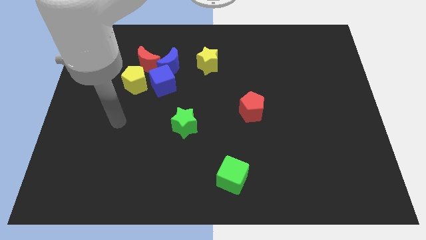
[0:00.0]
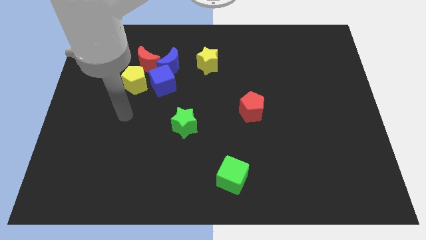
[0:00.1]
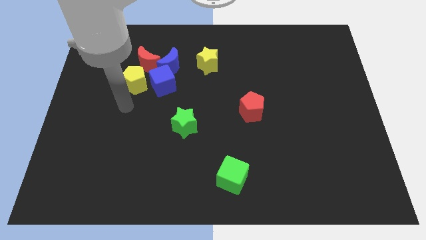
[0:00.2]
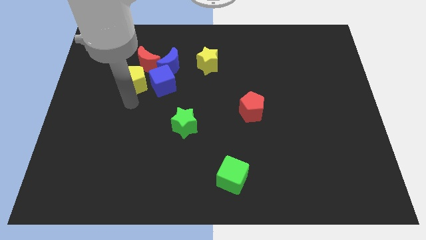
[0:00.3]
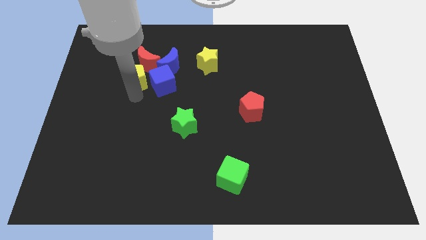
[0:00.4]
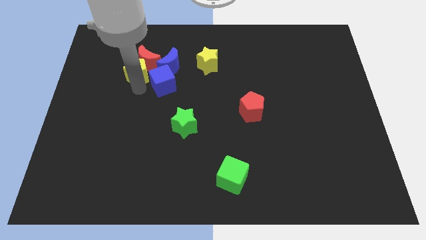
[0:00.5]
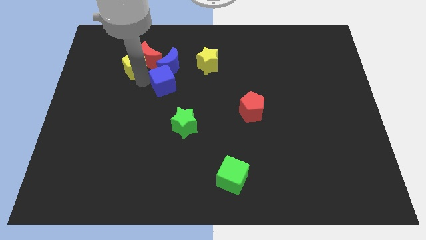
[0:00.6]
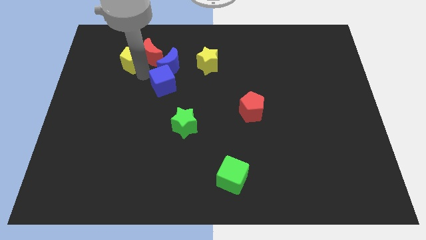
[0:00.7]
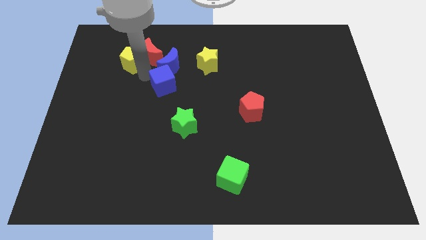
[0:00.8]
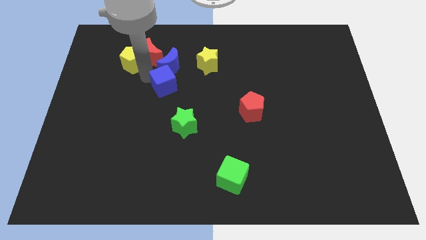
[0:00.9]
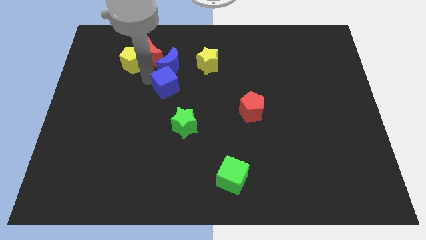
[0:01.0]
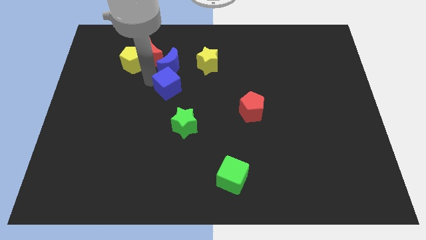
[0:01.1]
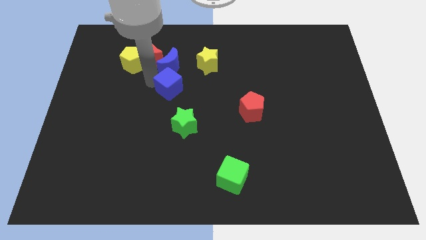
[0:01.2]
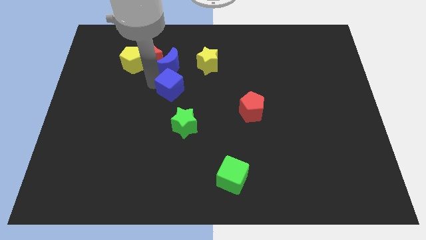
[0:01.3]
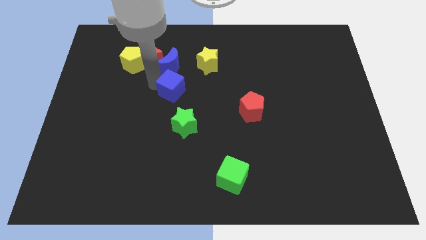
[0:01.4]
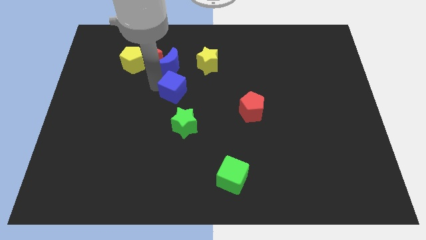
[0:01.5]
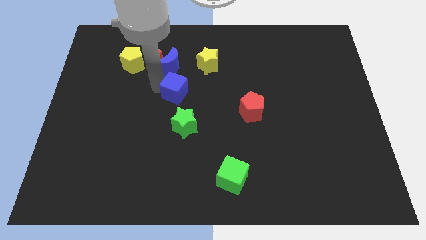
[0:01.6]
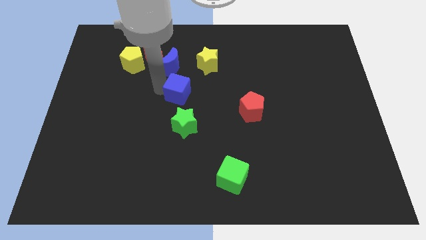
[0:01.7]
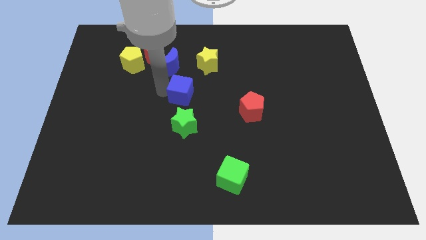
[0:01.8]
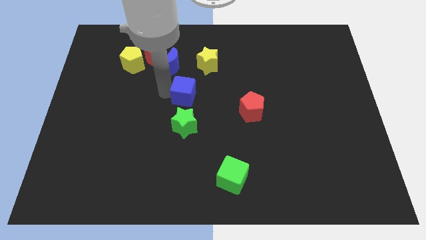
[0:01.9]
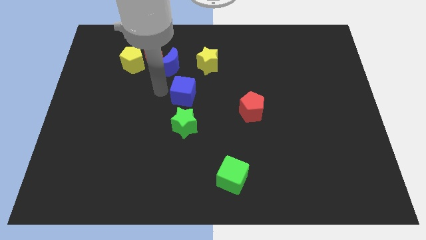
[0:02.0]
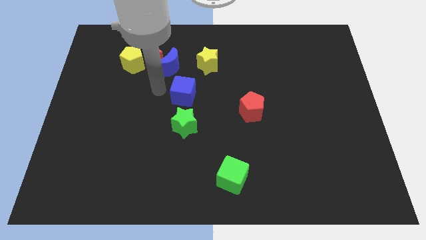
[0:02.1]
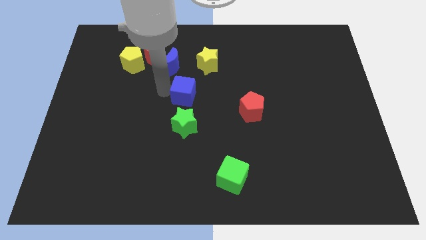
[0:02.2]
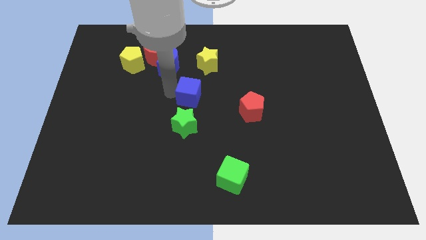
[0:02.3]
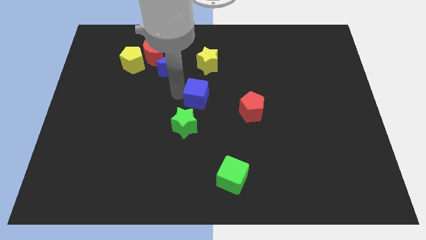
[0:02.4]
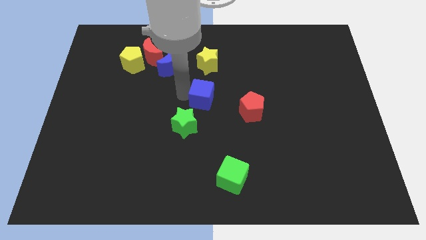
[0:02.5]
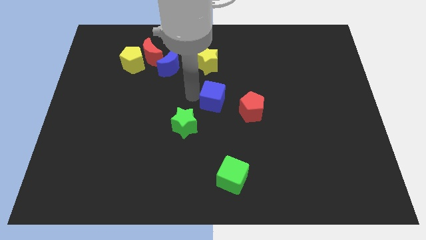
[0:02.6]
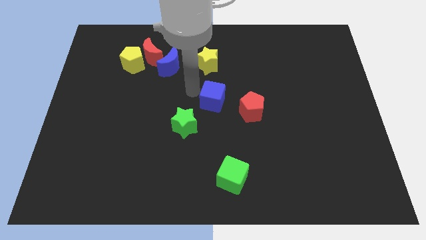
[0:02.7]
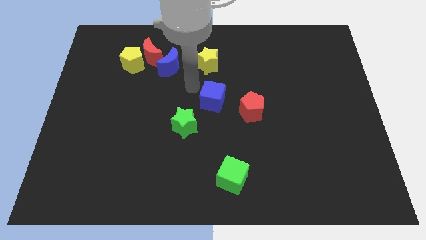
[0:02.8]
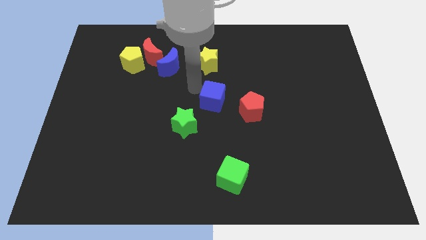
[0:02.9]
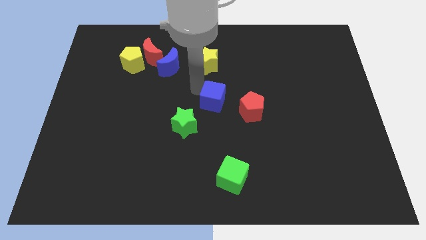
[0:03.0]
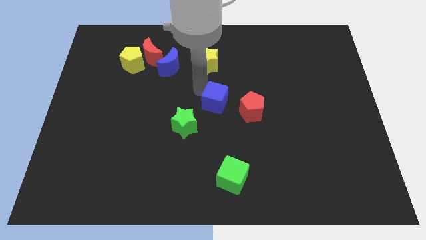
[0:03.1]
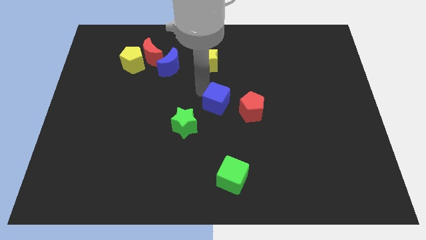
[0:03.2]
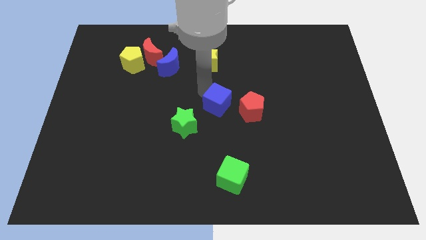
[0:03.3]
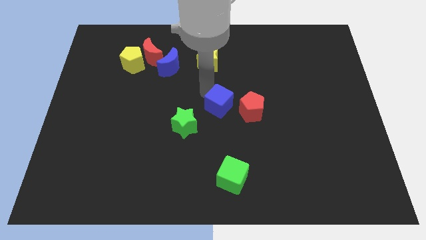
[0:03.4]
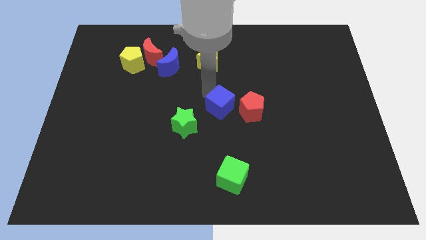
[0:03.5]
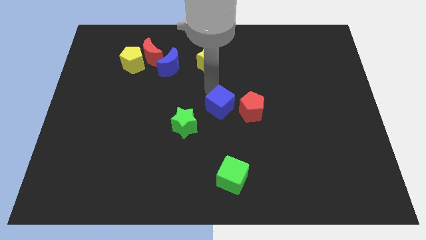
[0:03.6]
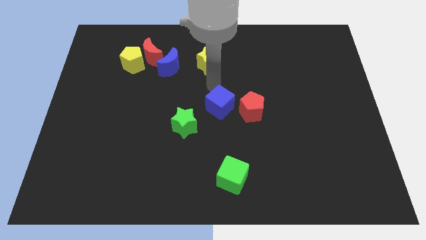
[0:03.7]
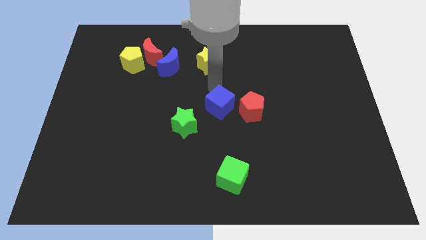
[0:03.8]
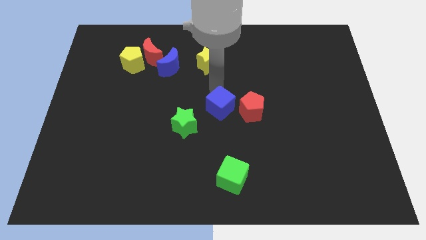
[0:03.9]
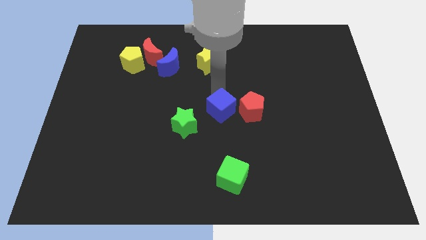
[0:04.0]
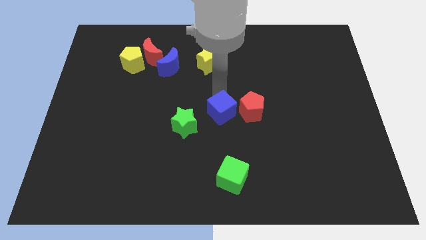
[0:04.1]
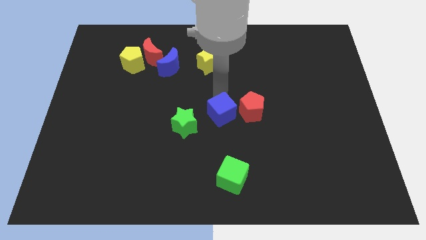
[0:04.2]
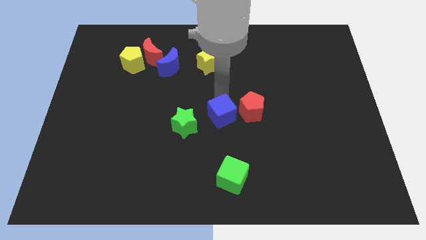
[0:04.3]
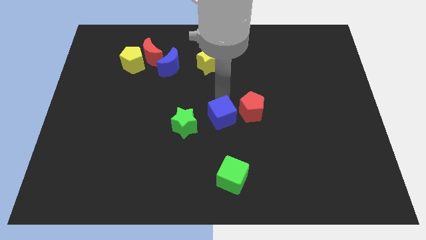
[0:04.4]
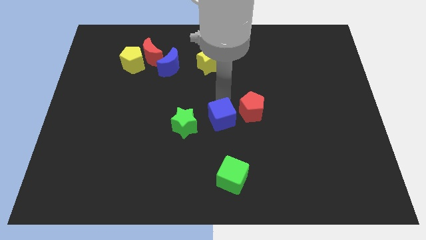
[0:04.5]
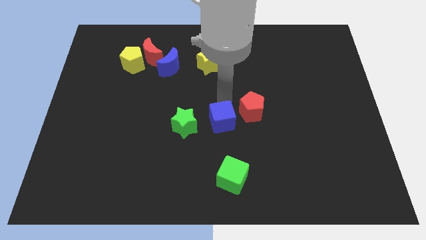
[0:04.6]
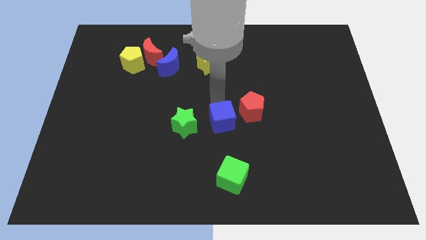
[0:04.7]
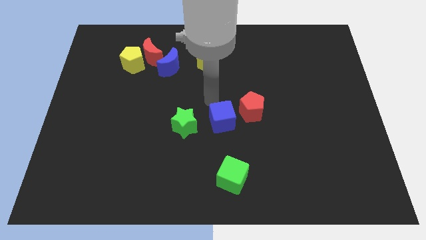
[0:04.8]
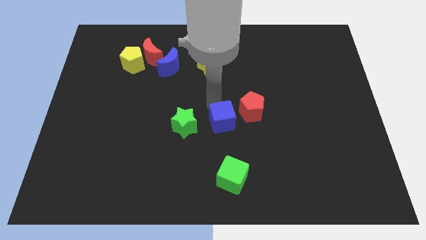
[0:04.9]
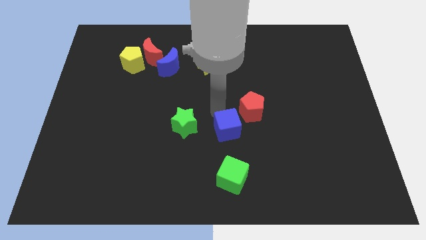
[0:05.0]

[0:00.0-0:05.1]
move the blue cube diagonally down and right

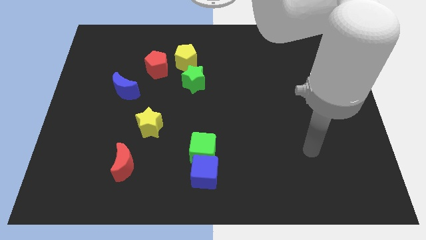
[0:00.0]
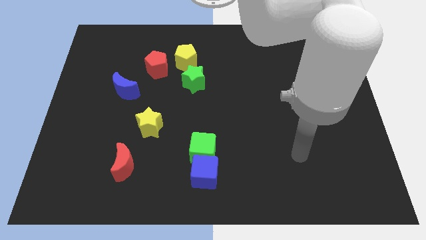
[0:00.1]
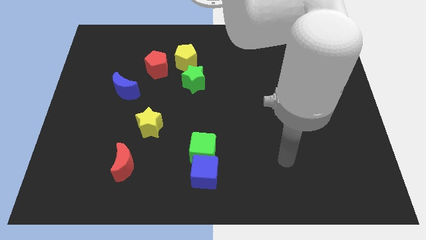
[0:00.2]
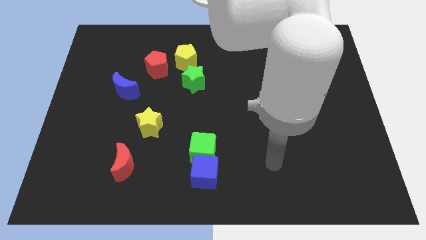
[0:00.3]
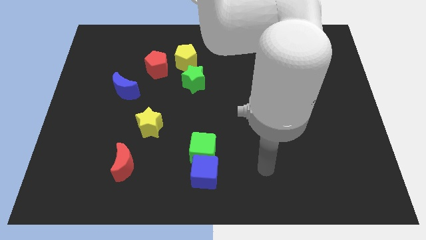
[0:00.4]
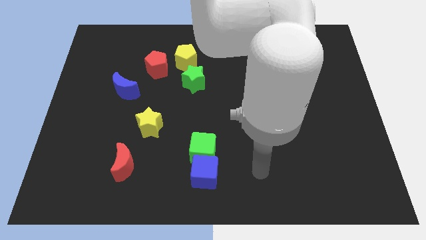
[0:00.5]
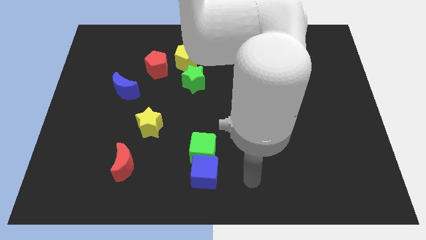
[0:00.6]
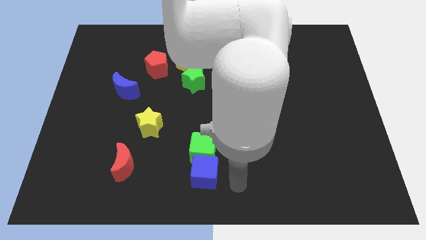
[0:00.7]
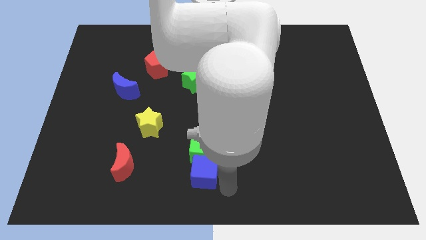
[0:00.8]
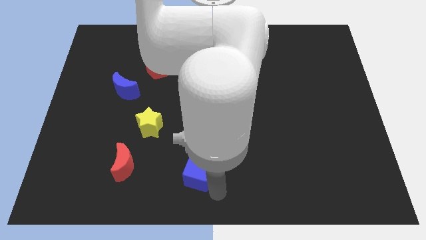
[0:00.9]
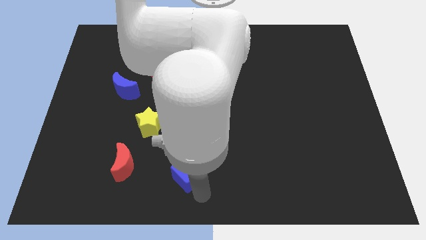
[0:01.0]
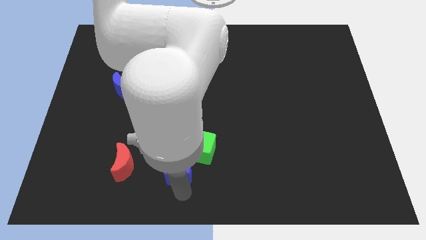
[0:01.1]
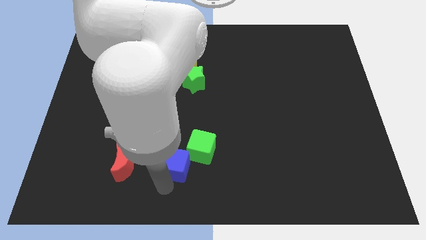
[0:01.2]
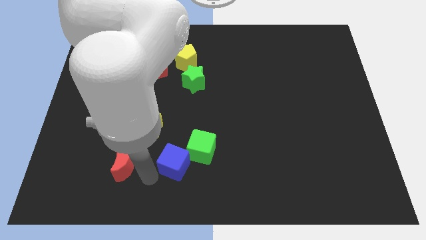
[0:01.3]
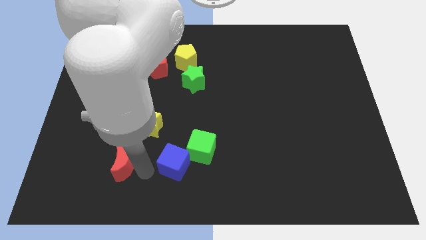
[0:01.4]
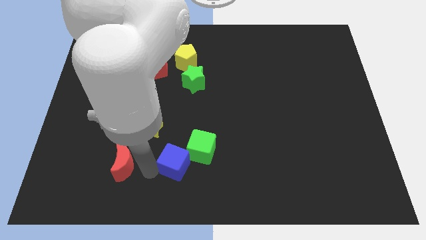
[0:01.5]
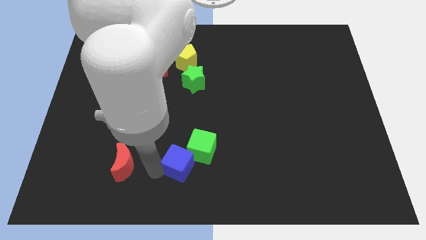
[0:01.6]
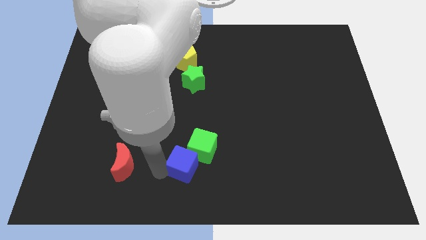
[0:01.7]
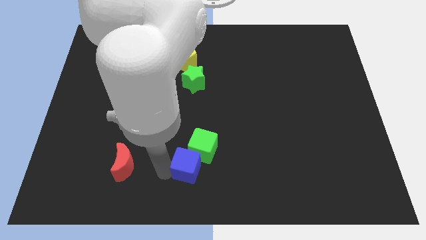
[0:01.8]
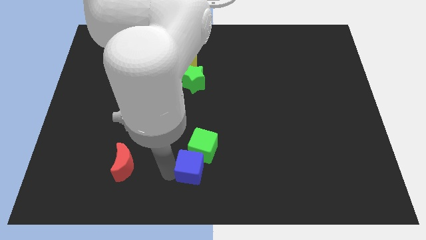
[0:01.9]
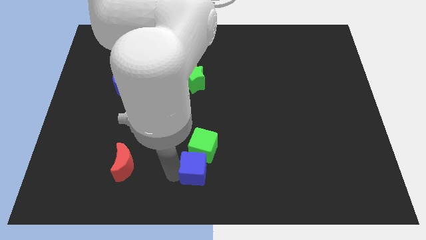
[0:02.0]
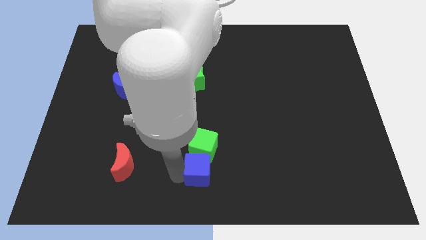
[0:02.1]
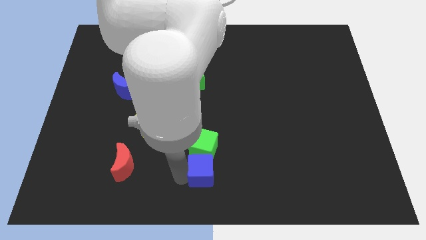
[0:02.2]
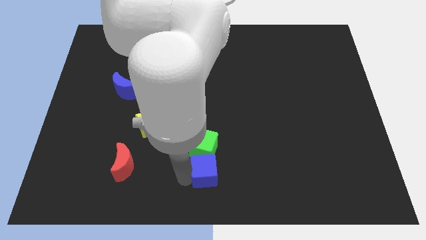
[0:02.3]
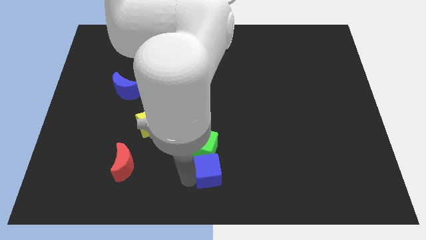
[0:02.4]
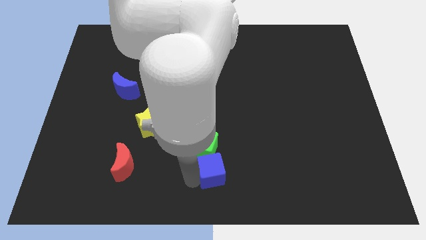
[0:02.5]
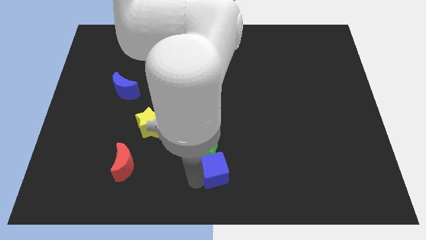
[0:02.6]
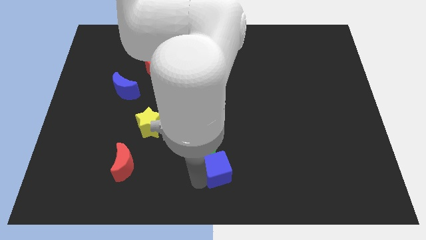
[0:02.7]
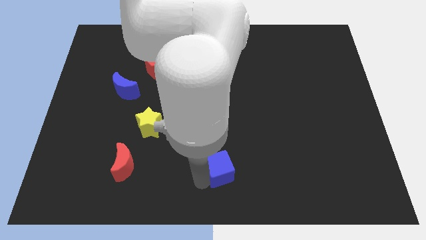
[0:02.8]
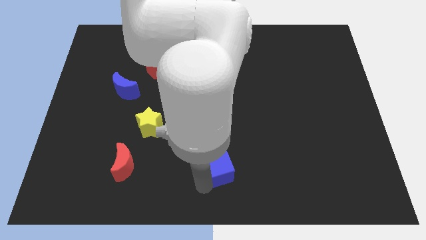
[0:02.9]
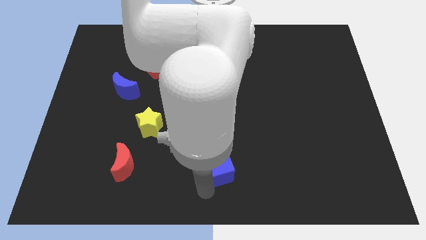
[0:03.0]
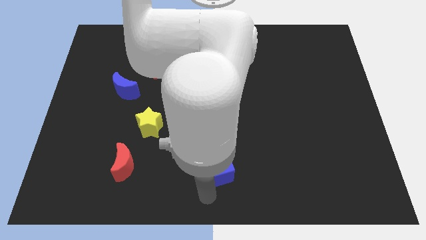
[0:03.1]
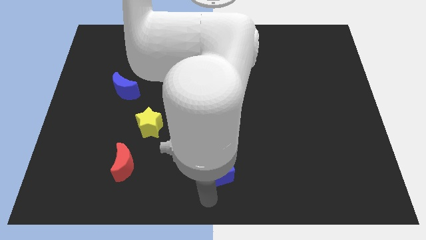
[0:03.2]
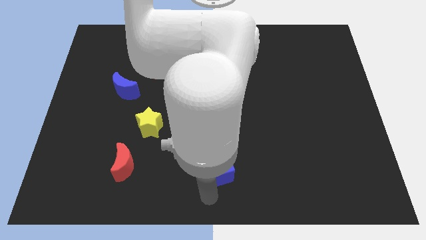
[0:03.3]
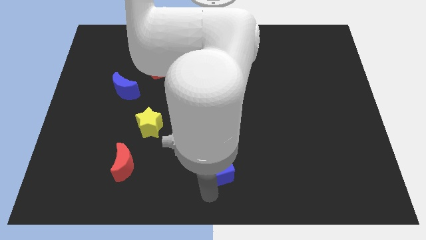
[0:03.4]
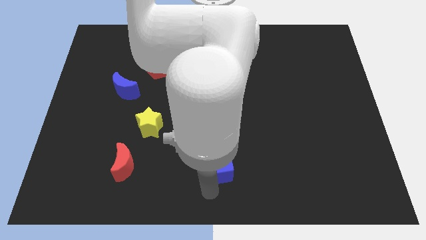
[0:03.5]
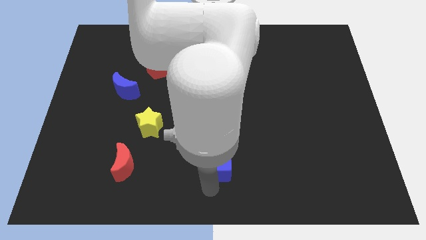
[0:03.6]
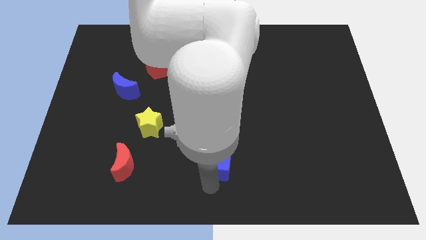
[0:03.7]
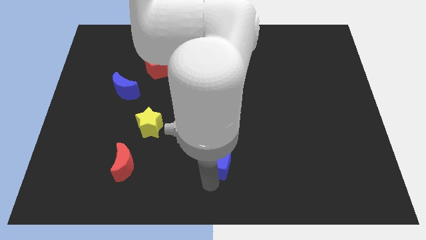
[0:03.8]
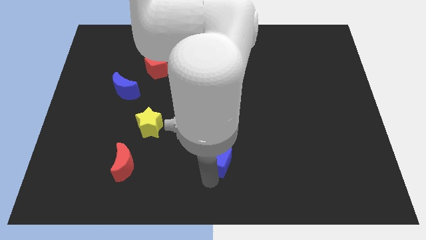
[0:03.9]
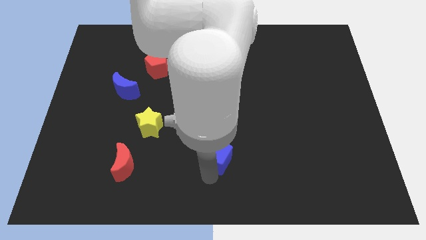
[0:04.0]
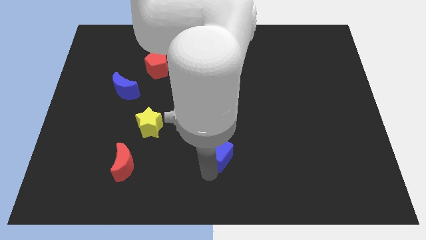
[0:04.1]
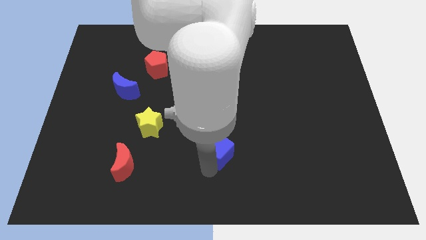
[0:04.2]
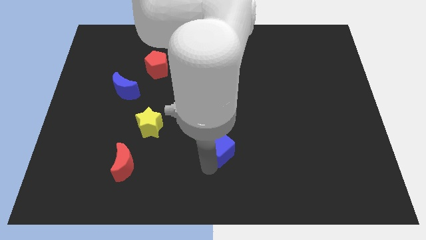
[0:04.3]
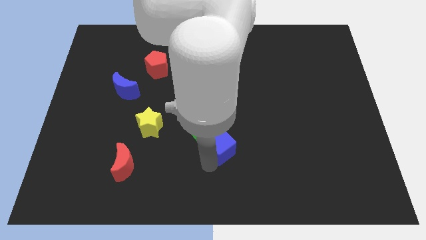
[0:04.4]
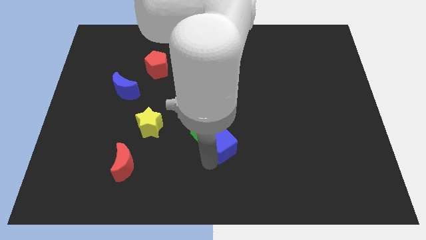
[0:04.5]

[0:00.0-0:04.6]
slightly slide the blue cube up and right diagonally
